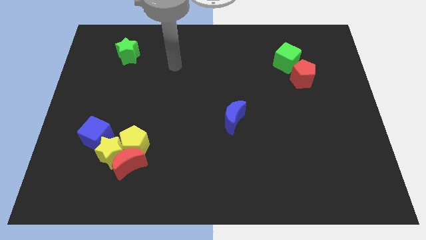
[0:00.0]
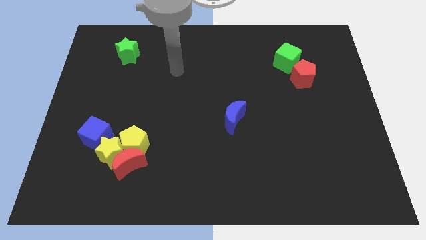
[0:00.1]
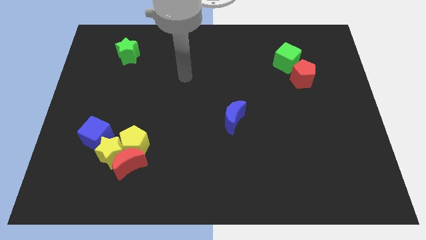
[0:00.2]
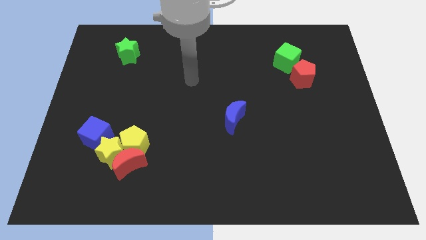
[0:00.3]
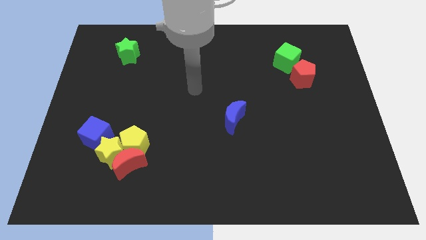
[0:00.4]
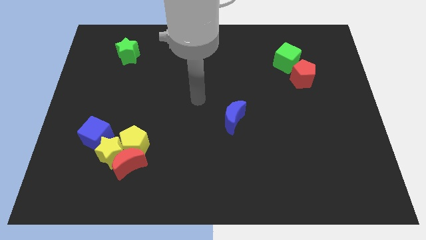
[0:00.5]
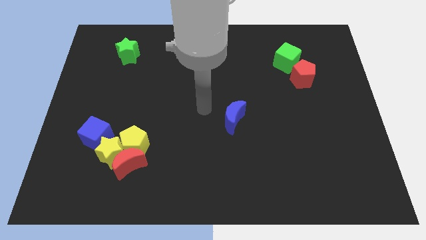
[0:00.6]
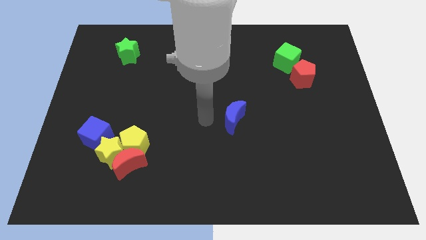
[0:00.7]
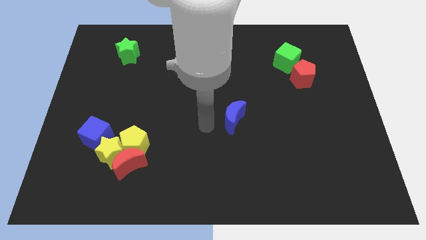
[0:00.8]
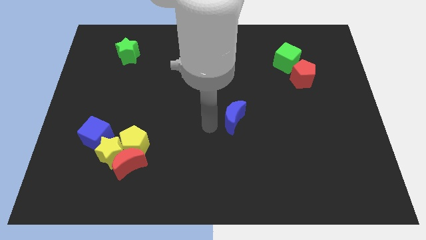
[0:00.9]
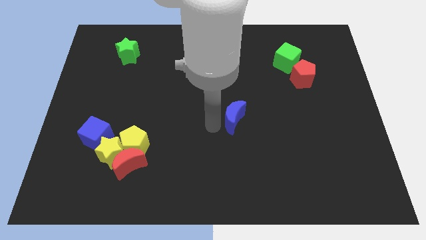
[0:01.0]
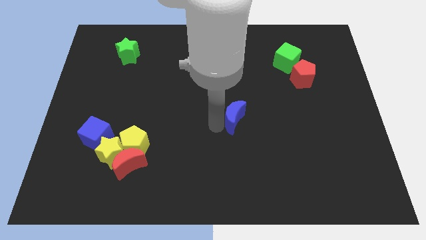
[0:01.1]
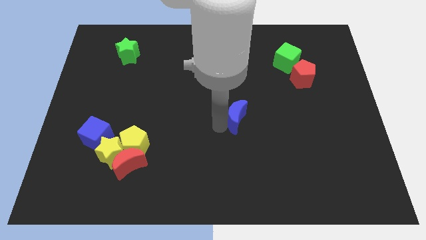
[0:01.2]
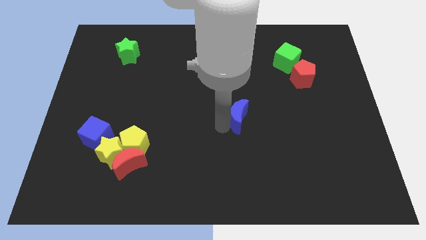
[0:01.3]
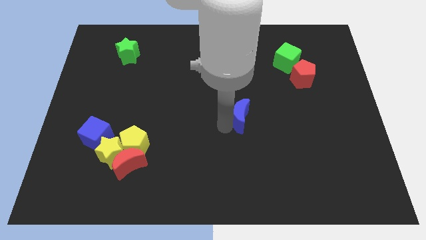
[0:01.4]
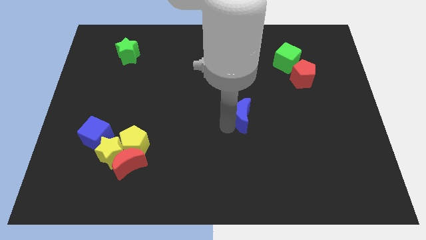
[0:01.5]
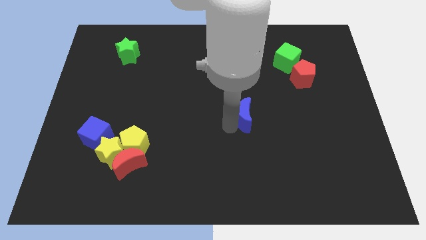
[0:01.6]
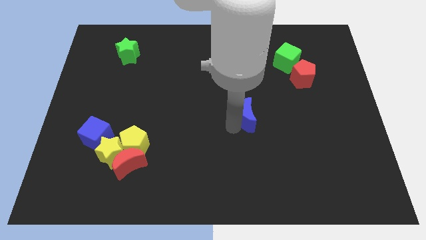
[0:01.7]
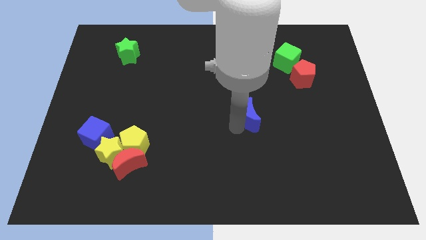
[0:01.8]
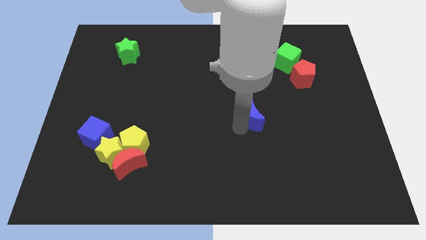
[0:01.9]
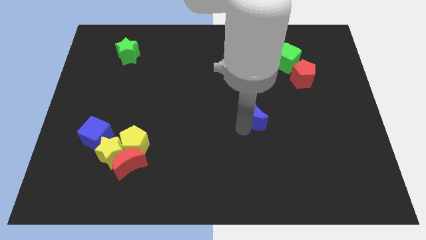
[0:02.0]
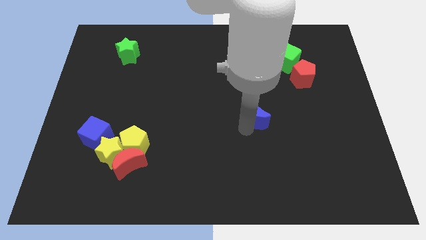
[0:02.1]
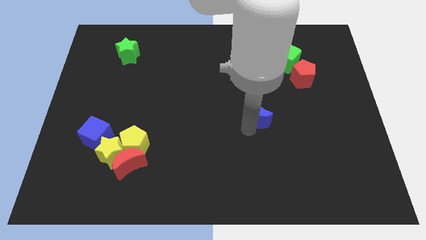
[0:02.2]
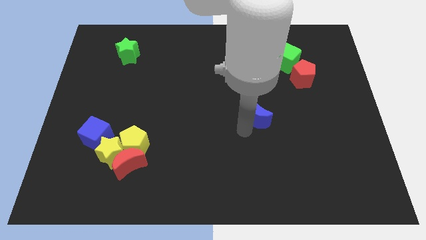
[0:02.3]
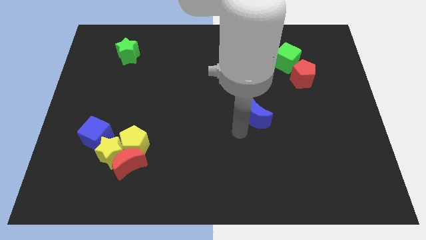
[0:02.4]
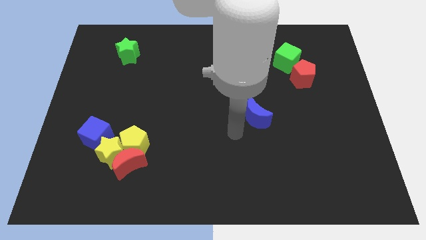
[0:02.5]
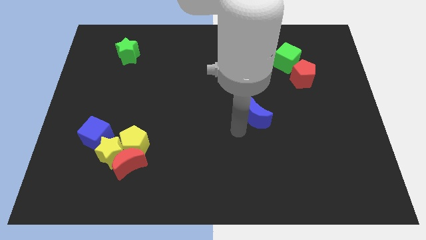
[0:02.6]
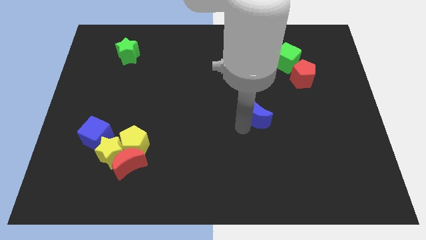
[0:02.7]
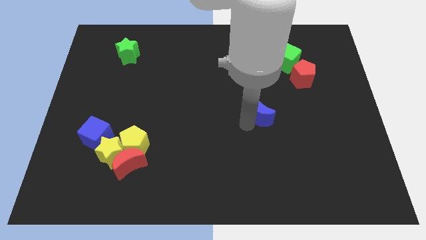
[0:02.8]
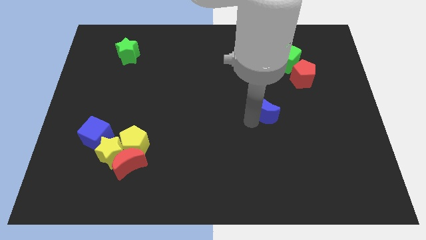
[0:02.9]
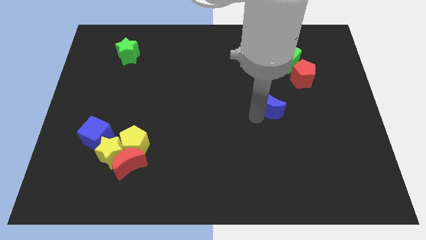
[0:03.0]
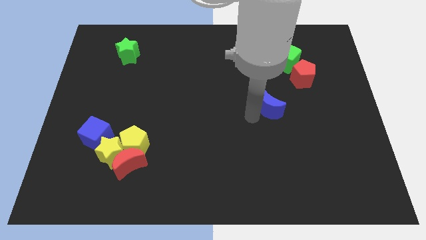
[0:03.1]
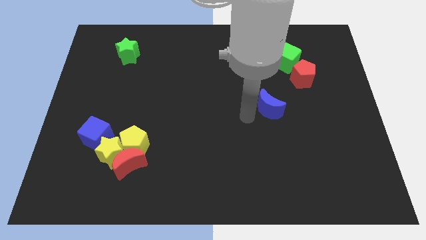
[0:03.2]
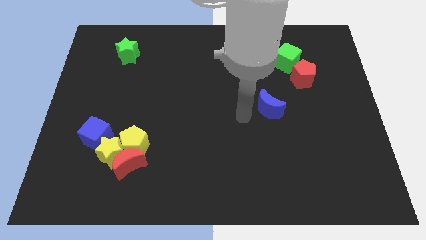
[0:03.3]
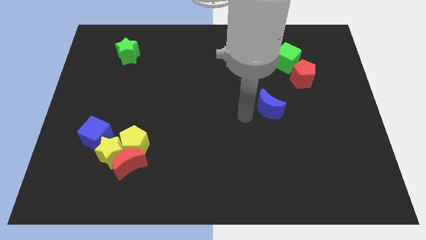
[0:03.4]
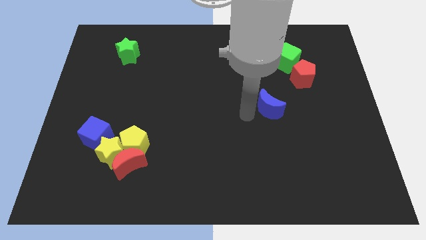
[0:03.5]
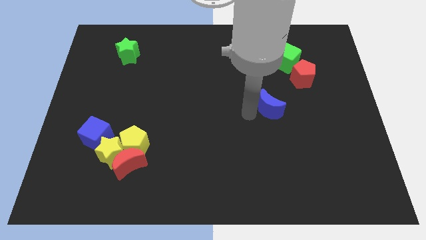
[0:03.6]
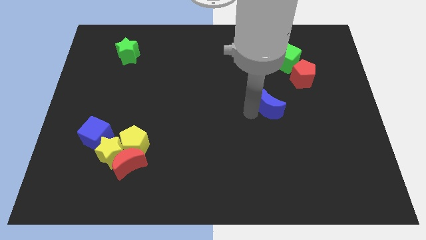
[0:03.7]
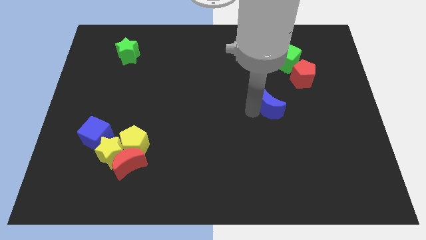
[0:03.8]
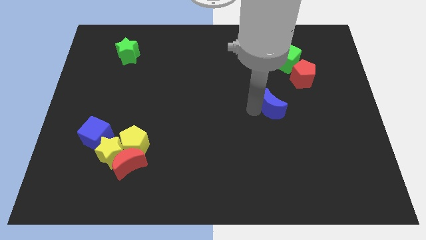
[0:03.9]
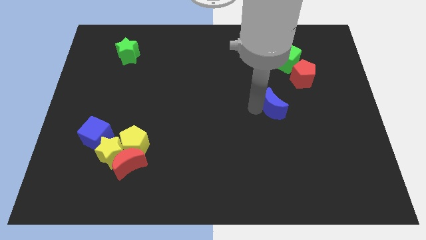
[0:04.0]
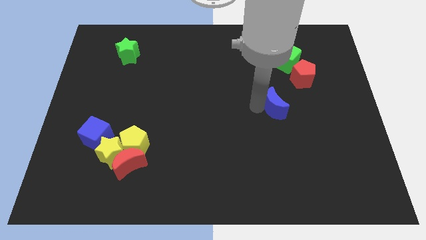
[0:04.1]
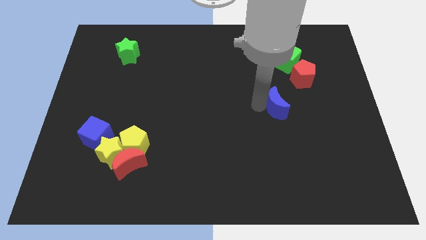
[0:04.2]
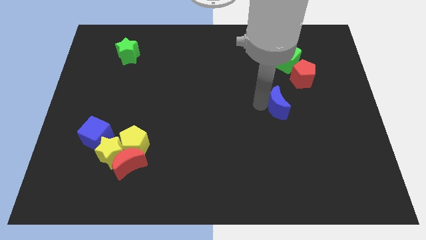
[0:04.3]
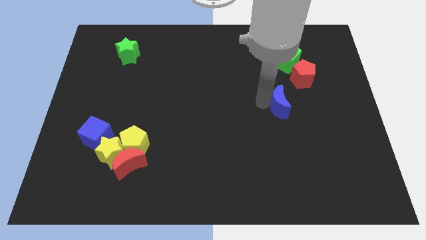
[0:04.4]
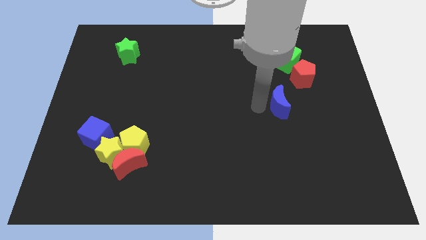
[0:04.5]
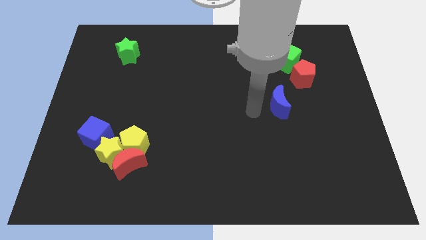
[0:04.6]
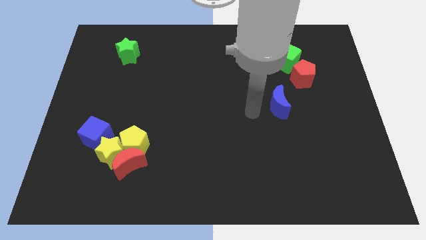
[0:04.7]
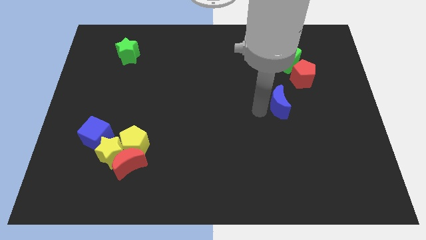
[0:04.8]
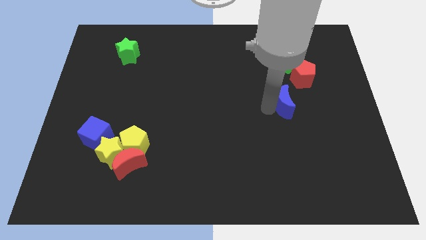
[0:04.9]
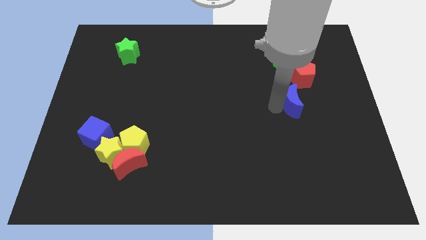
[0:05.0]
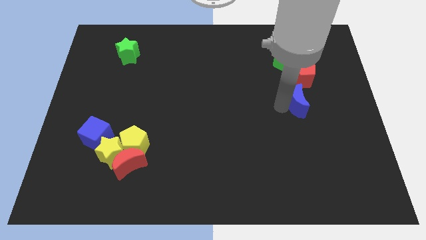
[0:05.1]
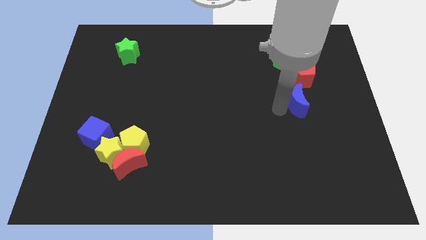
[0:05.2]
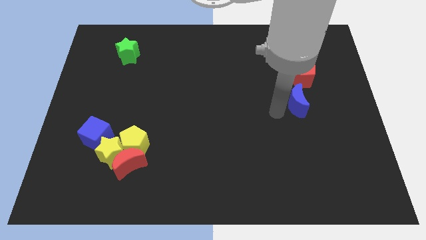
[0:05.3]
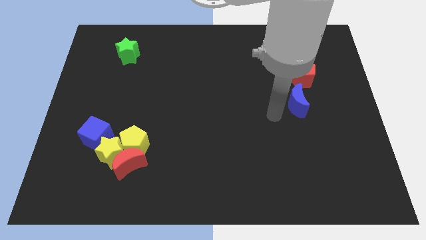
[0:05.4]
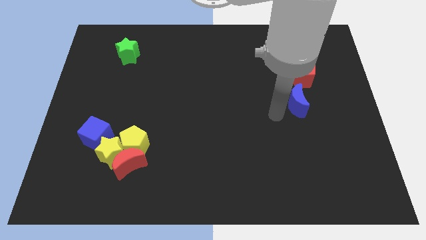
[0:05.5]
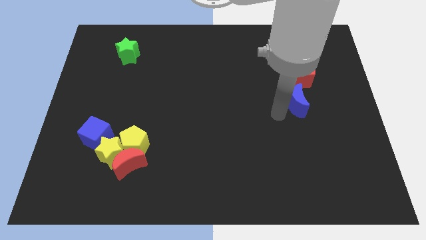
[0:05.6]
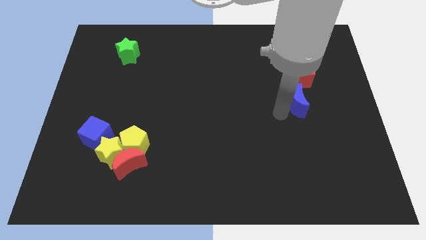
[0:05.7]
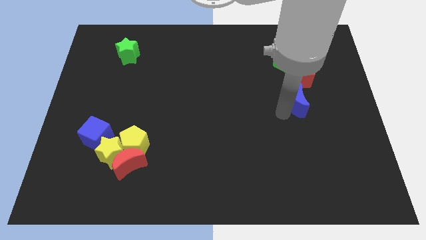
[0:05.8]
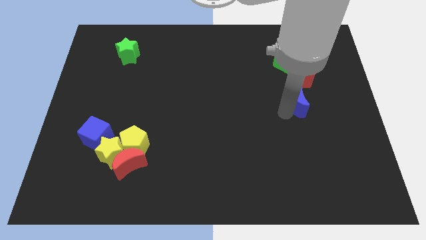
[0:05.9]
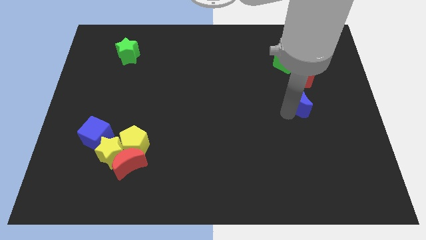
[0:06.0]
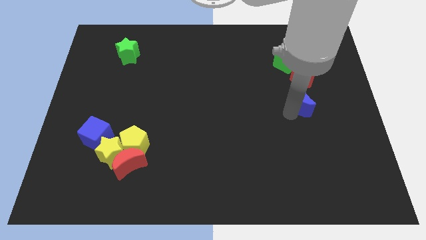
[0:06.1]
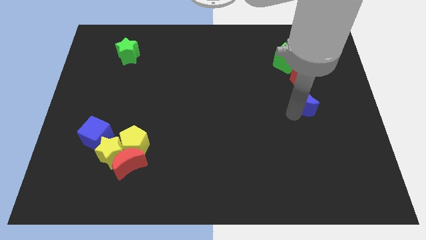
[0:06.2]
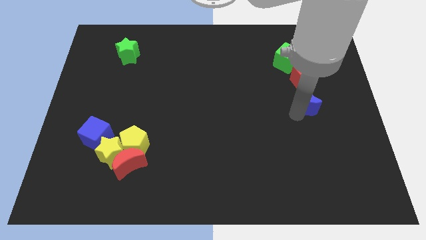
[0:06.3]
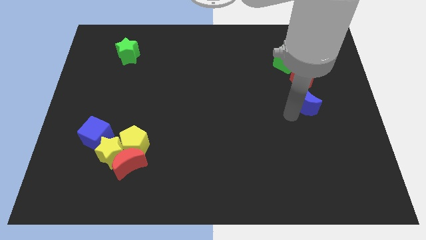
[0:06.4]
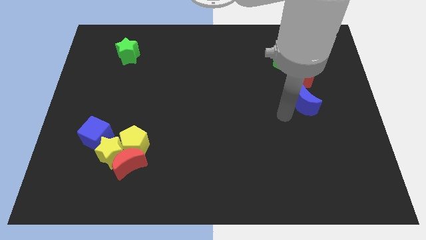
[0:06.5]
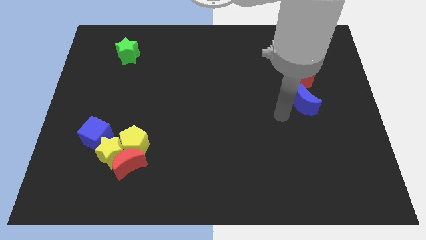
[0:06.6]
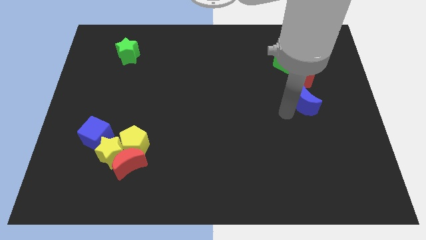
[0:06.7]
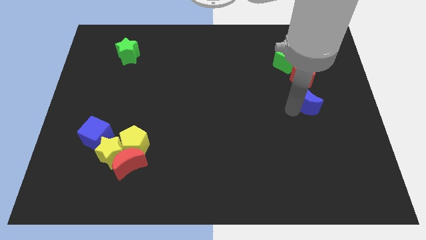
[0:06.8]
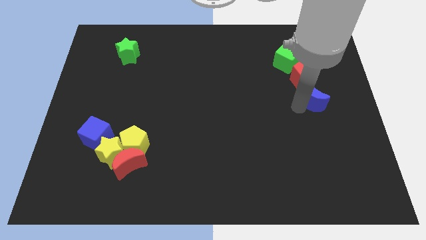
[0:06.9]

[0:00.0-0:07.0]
put the blue moon to the bottom right of the red pentagon

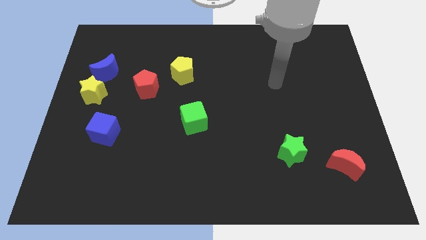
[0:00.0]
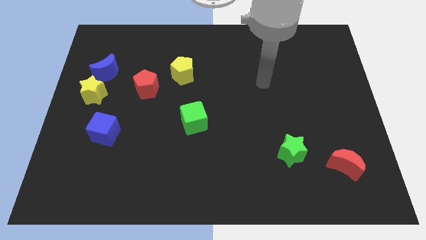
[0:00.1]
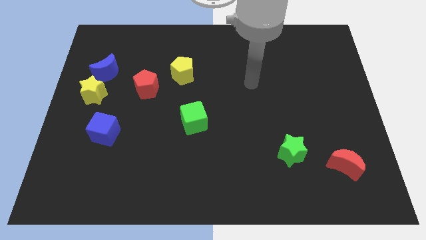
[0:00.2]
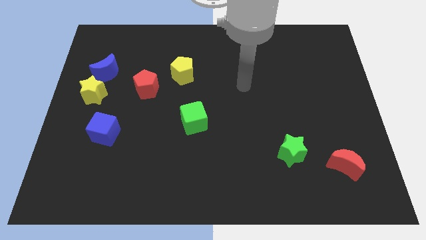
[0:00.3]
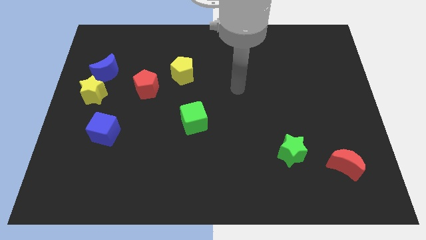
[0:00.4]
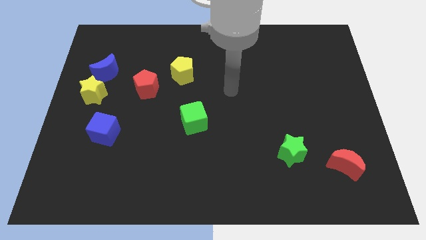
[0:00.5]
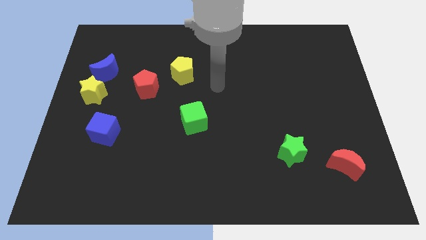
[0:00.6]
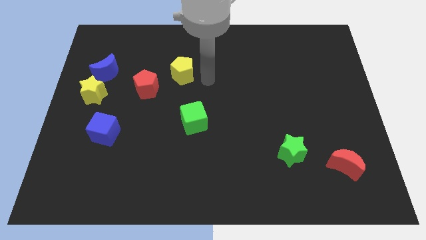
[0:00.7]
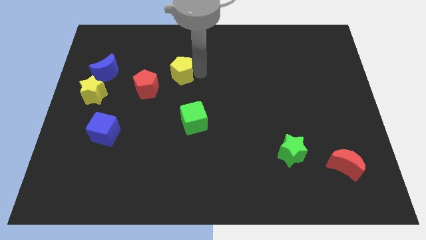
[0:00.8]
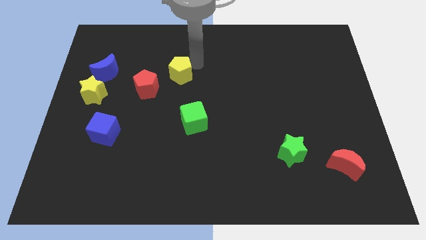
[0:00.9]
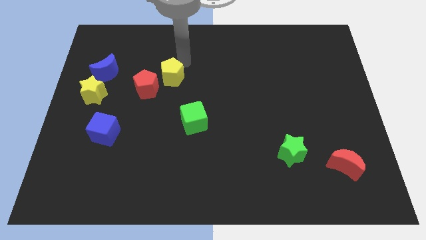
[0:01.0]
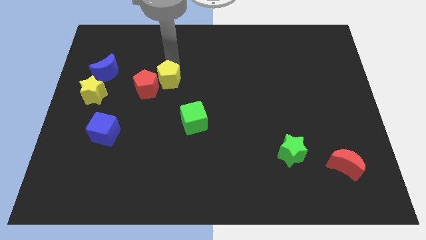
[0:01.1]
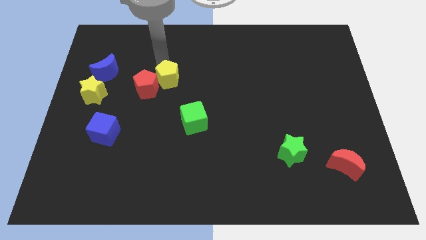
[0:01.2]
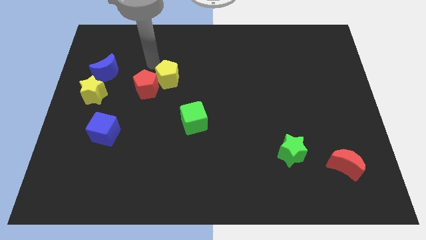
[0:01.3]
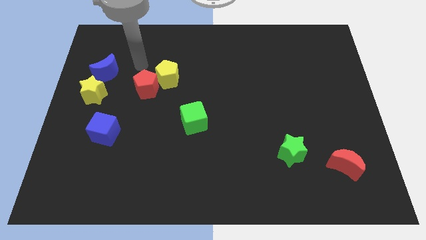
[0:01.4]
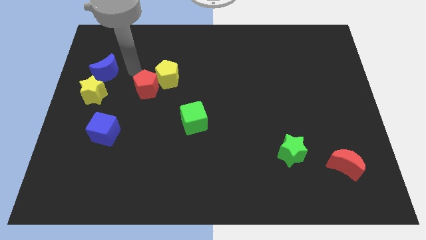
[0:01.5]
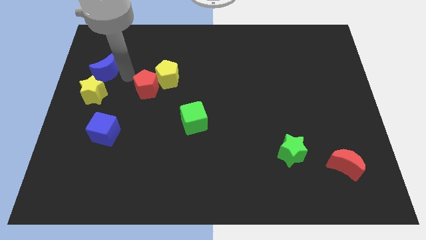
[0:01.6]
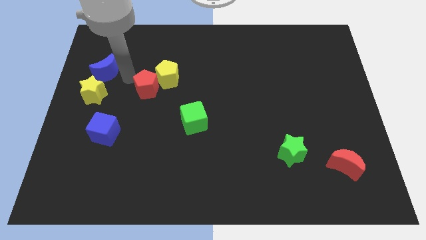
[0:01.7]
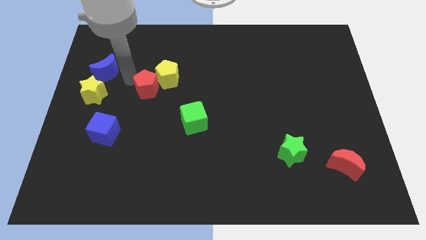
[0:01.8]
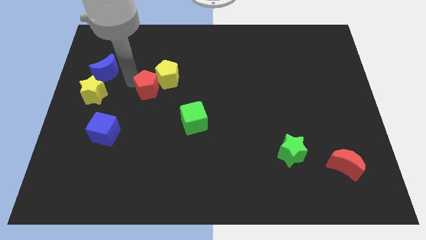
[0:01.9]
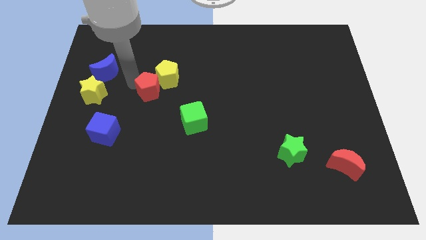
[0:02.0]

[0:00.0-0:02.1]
slide the red pentagon to the bottom of the yellow pentagon
